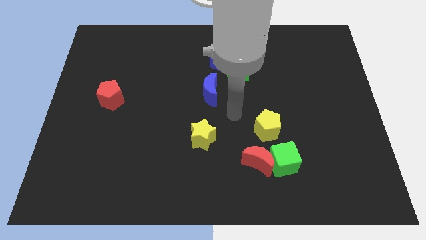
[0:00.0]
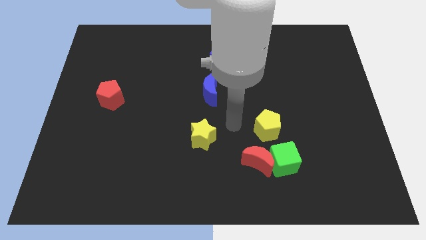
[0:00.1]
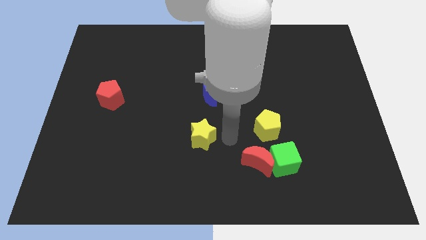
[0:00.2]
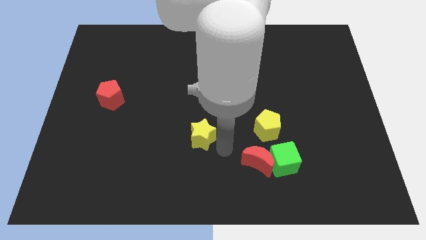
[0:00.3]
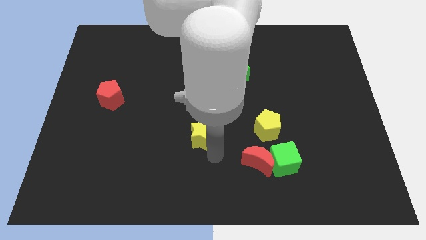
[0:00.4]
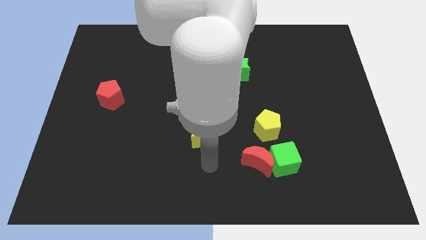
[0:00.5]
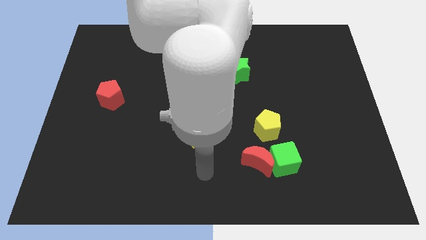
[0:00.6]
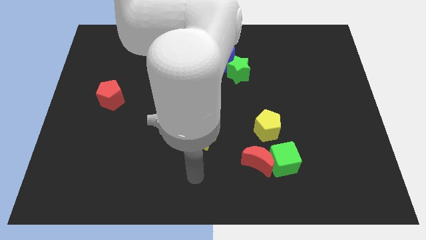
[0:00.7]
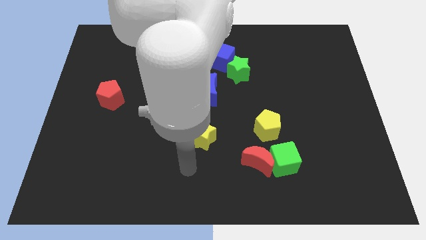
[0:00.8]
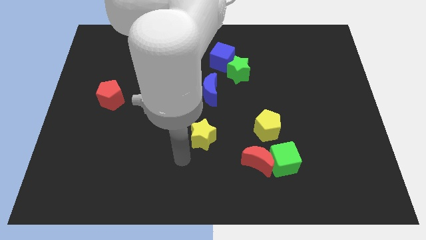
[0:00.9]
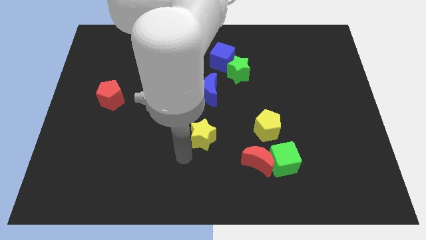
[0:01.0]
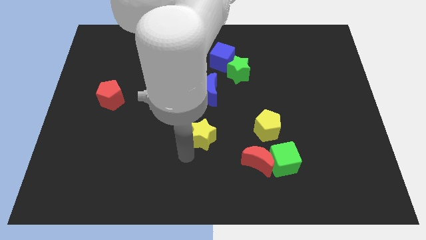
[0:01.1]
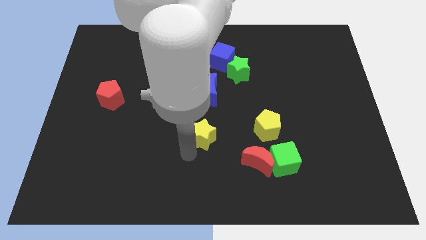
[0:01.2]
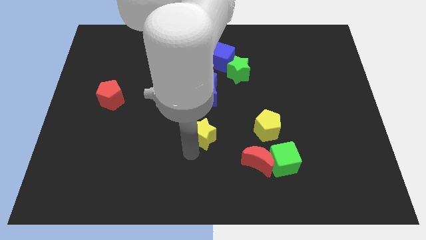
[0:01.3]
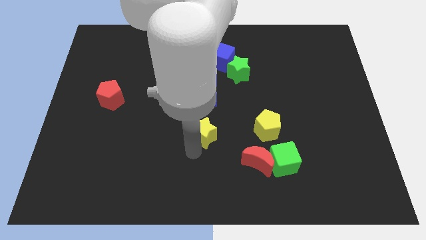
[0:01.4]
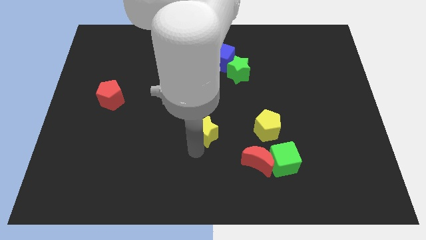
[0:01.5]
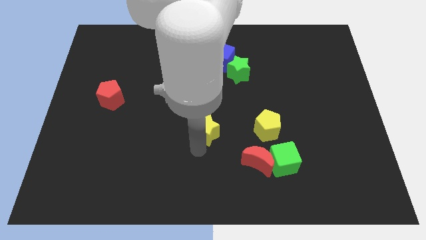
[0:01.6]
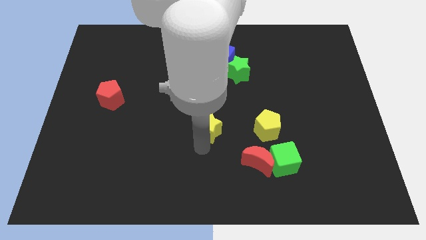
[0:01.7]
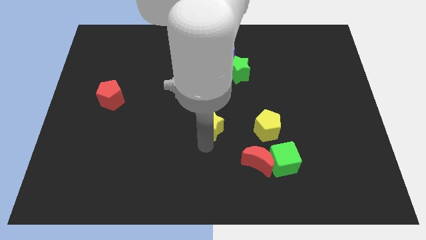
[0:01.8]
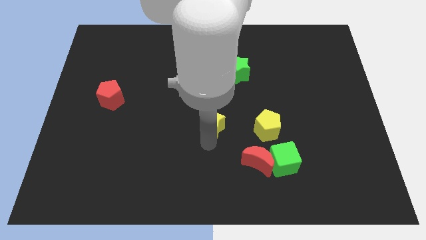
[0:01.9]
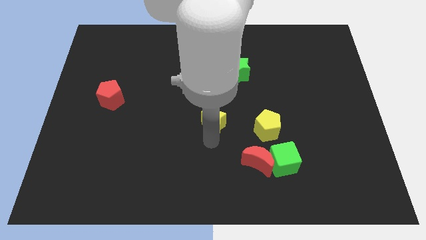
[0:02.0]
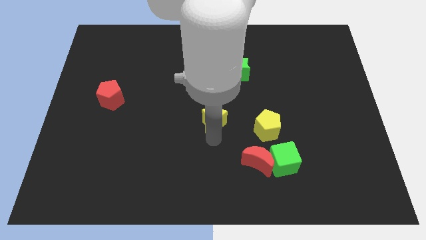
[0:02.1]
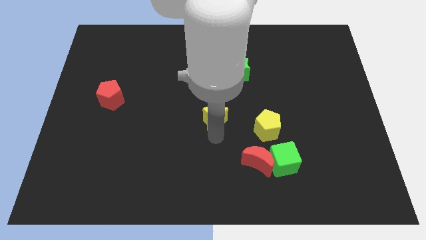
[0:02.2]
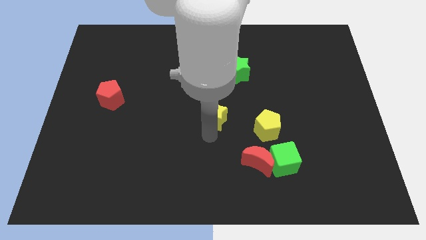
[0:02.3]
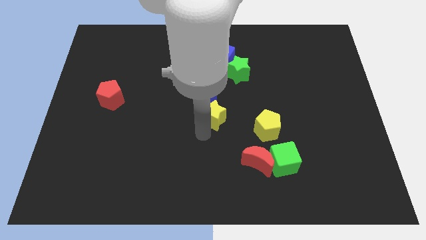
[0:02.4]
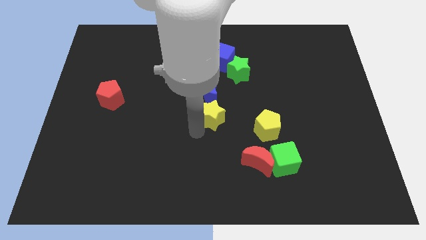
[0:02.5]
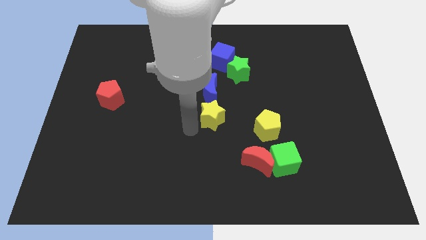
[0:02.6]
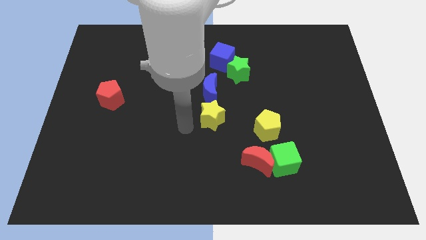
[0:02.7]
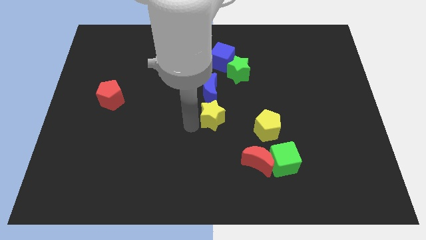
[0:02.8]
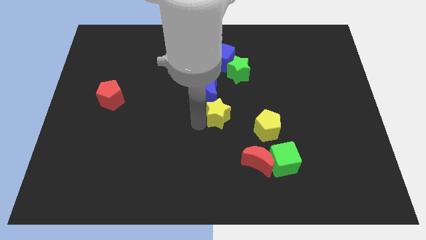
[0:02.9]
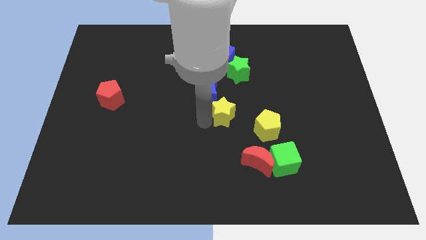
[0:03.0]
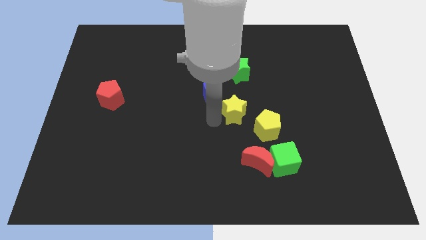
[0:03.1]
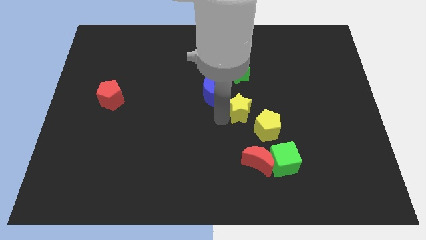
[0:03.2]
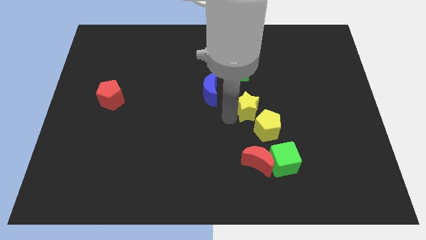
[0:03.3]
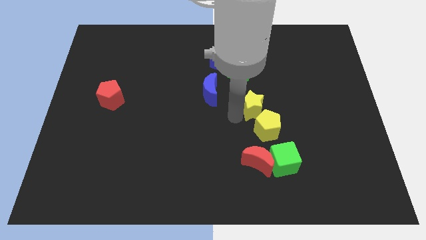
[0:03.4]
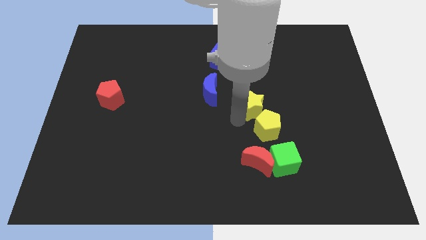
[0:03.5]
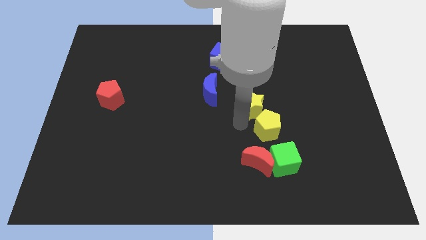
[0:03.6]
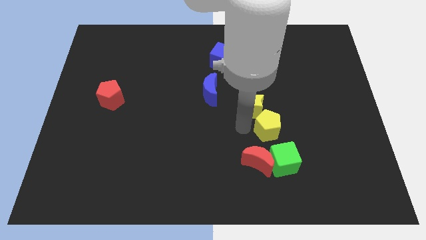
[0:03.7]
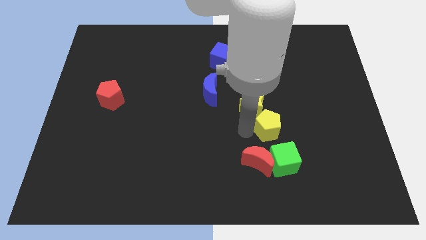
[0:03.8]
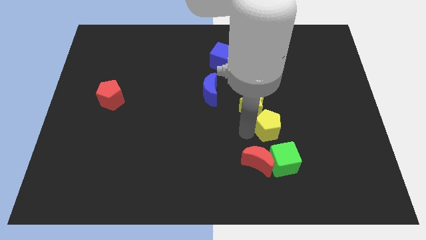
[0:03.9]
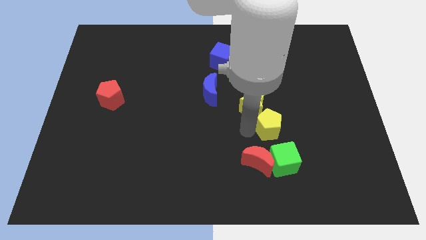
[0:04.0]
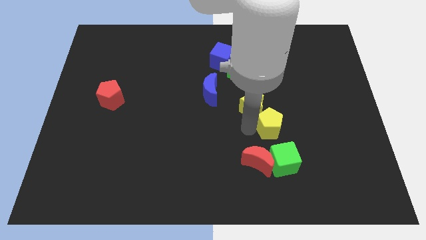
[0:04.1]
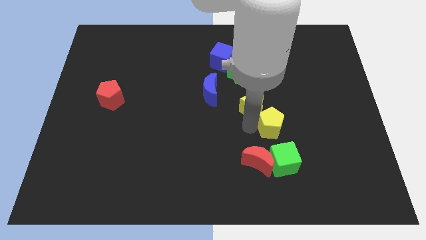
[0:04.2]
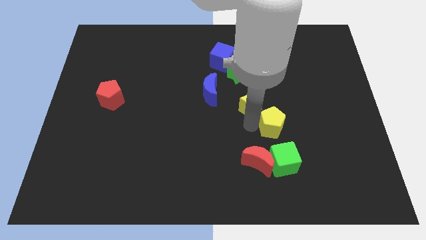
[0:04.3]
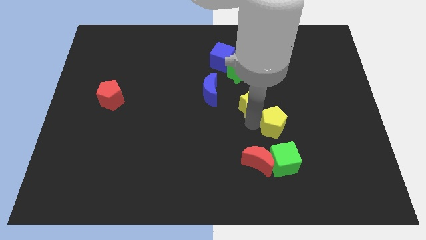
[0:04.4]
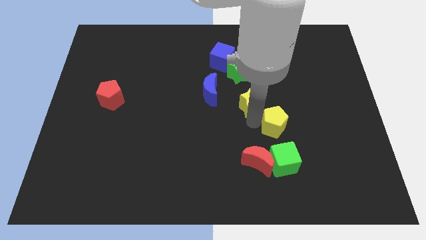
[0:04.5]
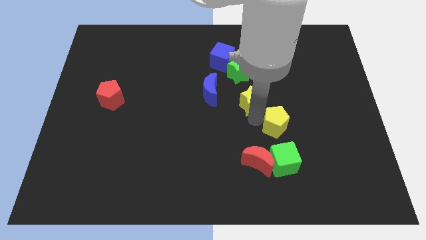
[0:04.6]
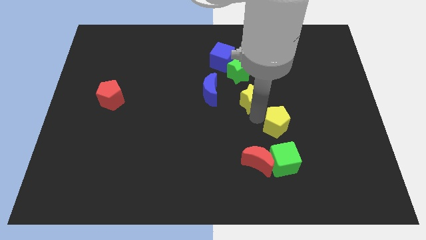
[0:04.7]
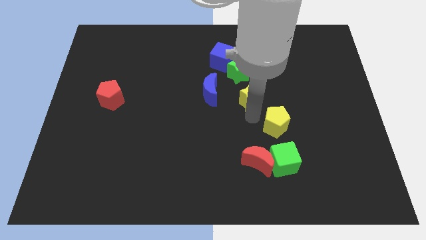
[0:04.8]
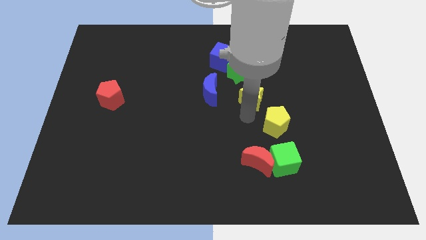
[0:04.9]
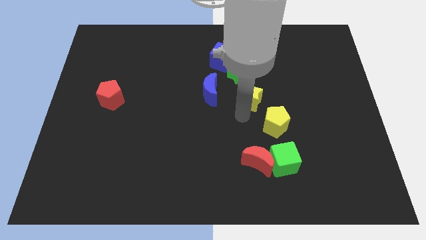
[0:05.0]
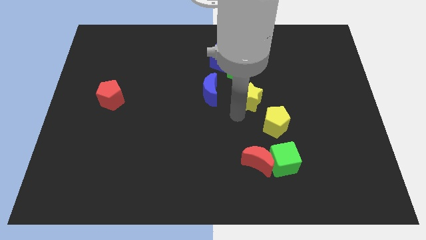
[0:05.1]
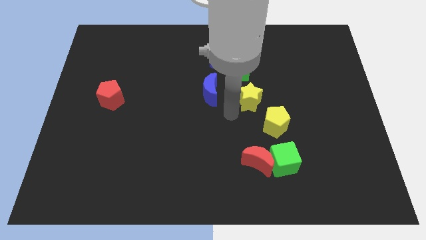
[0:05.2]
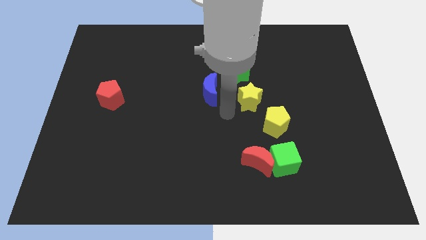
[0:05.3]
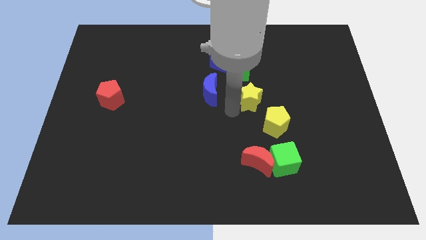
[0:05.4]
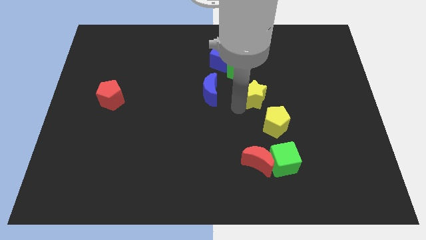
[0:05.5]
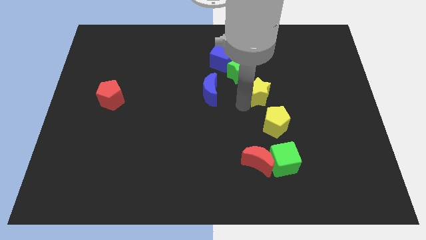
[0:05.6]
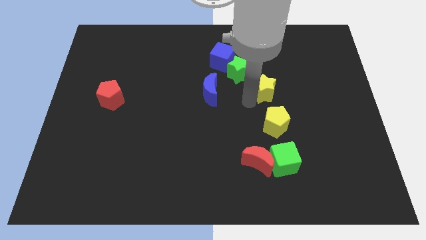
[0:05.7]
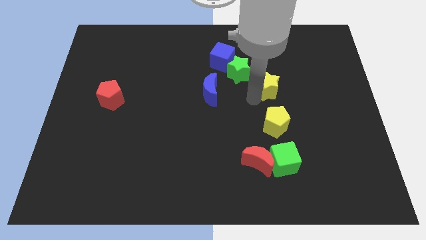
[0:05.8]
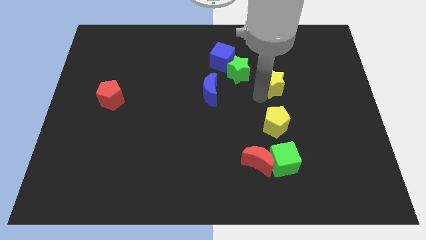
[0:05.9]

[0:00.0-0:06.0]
put the yellow star right of the green star

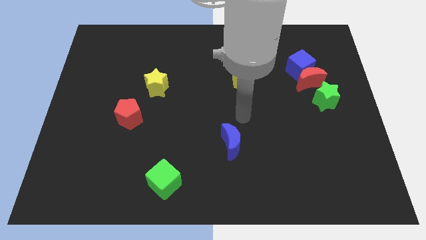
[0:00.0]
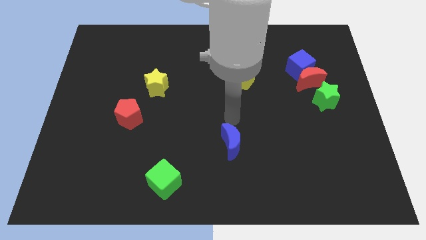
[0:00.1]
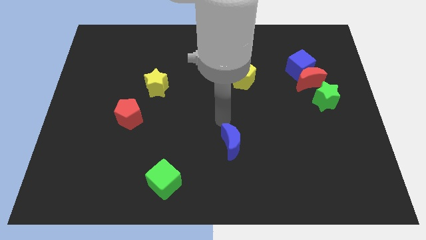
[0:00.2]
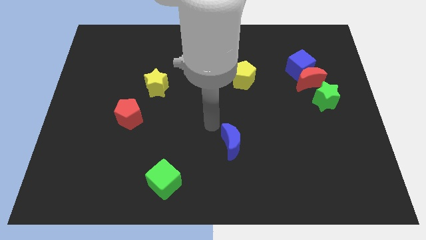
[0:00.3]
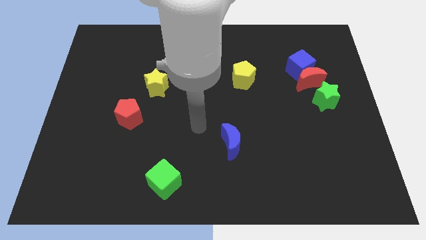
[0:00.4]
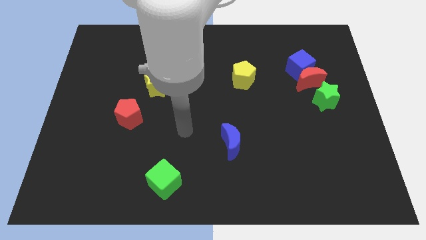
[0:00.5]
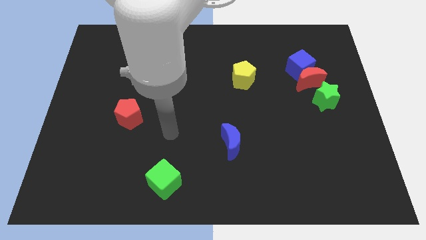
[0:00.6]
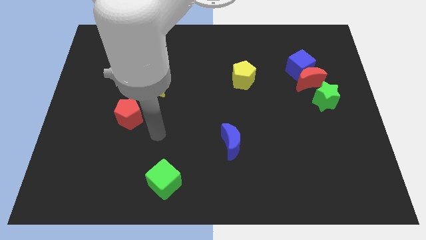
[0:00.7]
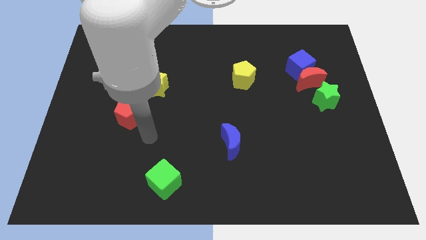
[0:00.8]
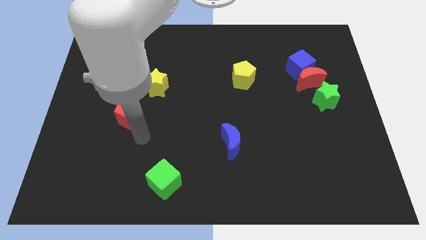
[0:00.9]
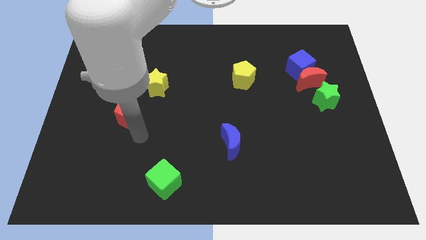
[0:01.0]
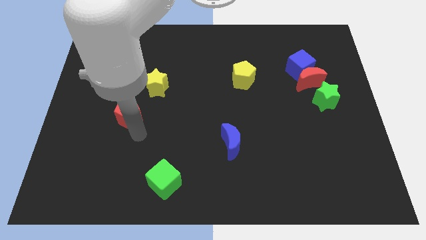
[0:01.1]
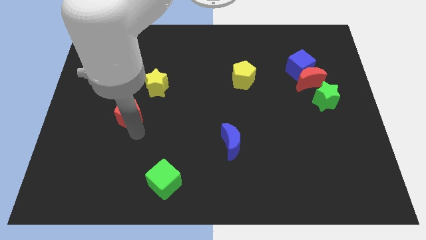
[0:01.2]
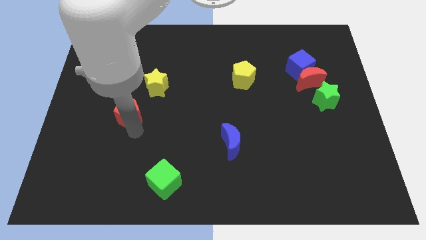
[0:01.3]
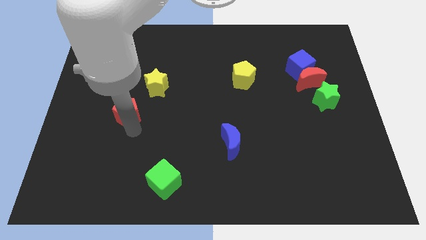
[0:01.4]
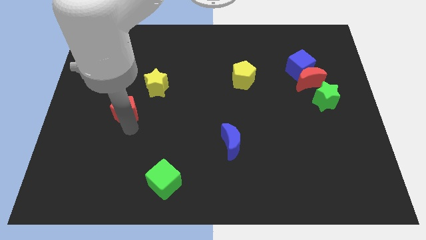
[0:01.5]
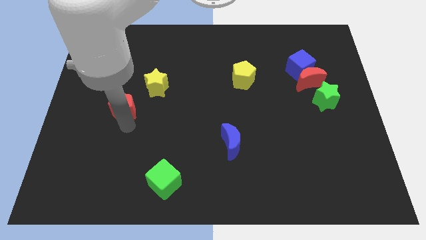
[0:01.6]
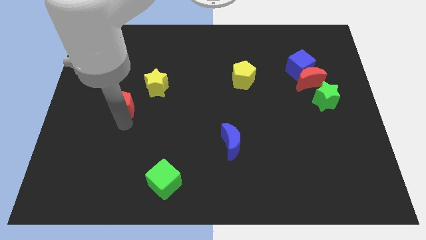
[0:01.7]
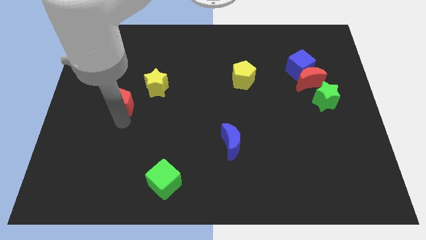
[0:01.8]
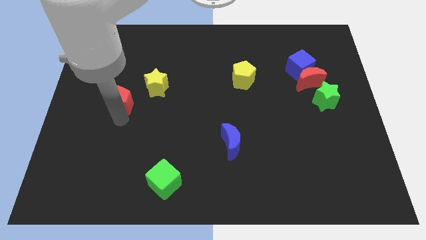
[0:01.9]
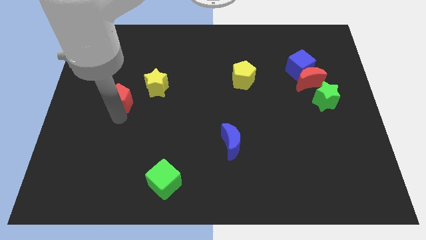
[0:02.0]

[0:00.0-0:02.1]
push the red pentagon to the left of the yellow star
